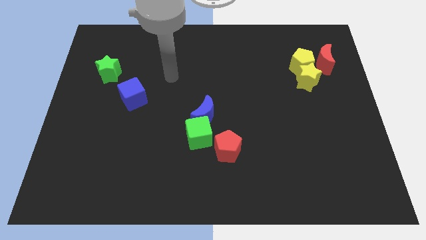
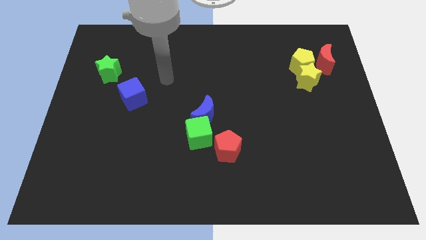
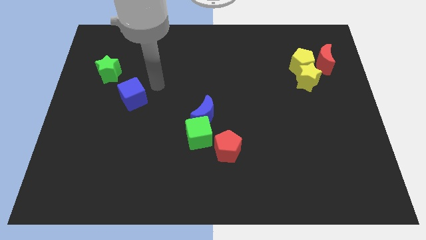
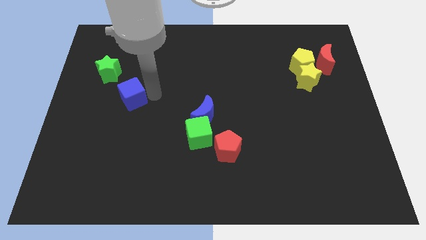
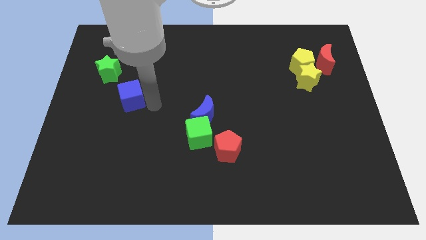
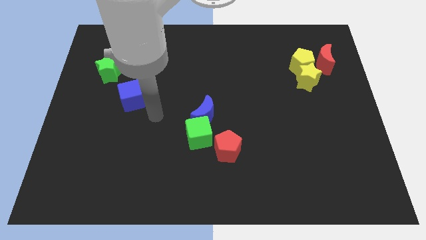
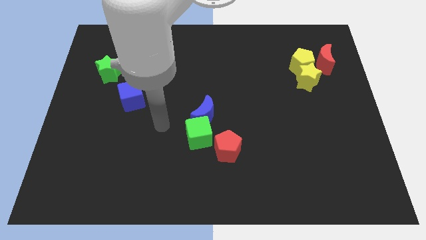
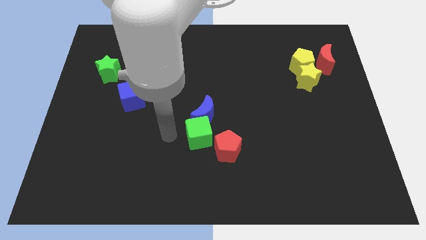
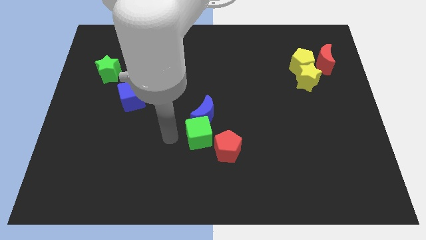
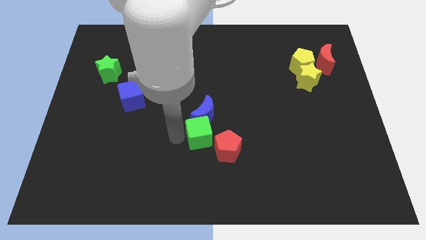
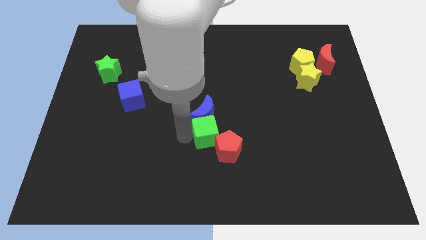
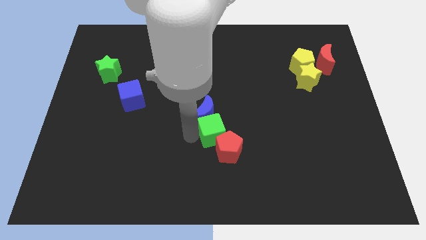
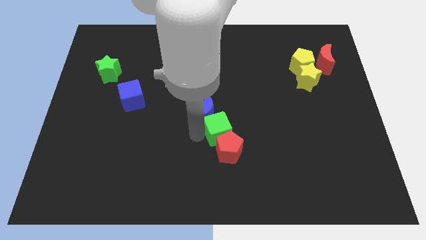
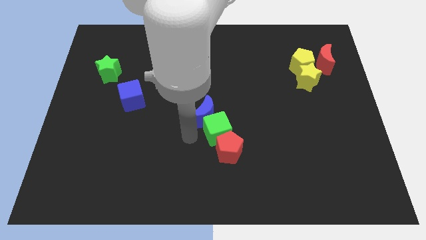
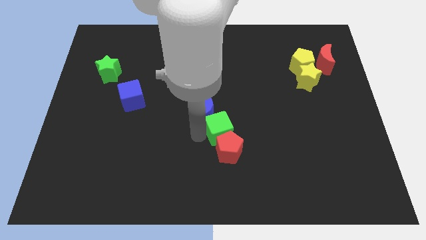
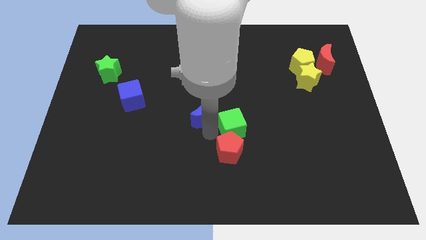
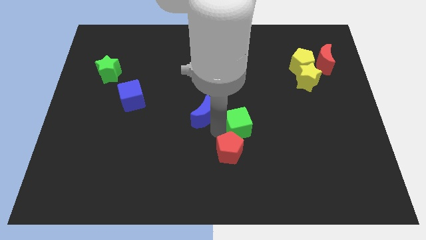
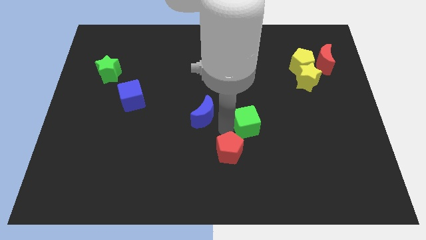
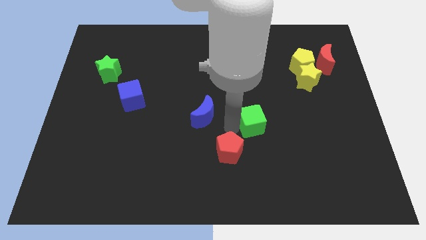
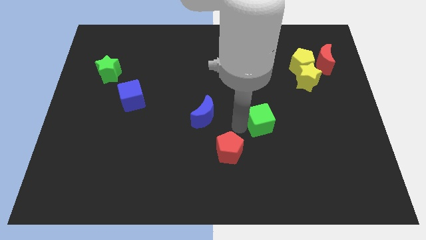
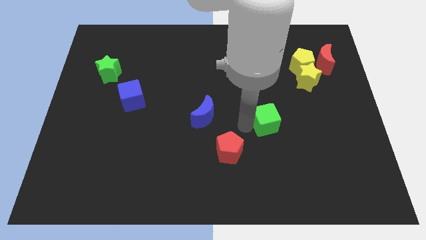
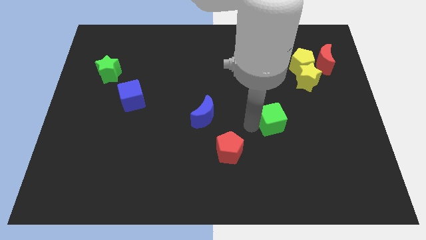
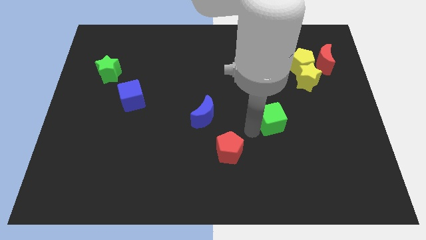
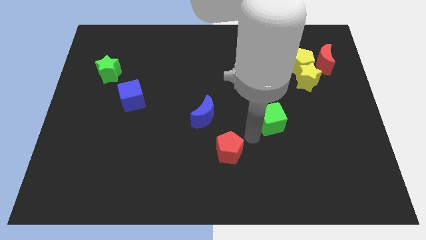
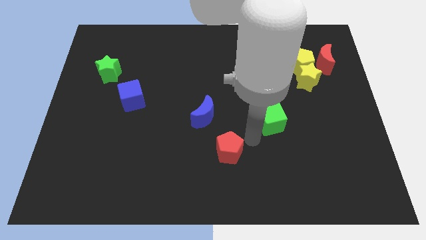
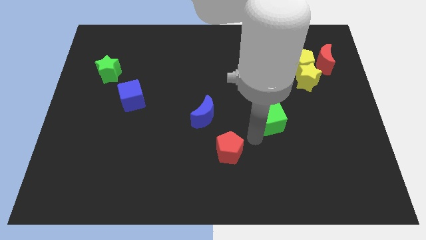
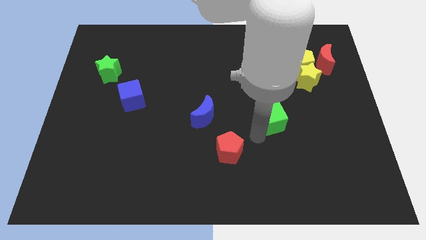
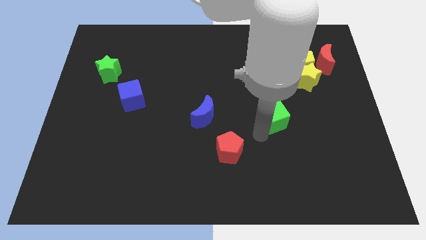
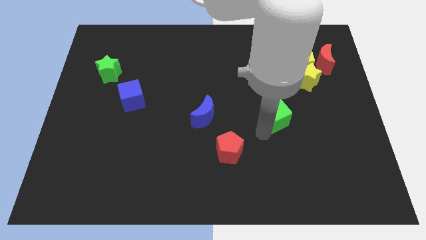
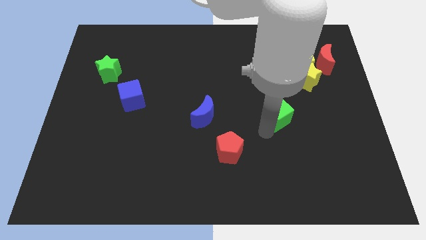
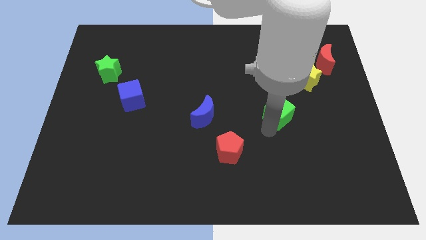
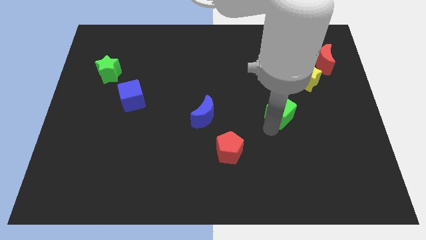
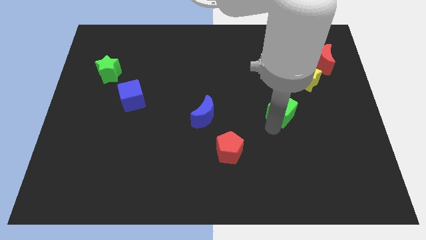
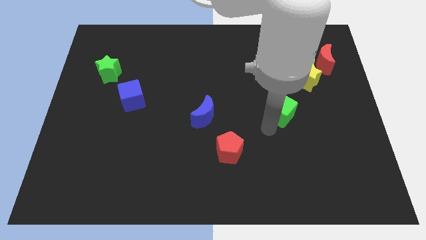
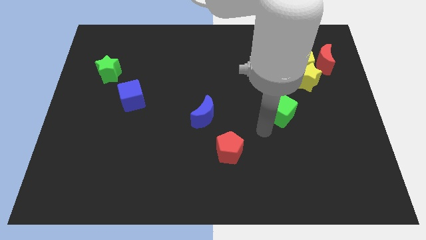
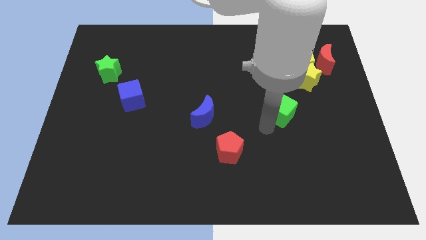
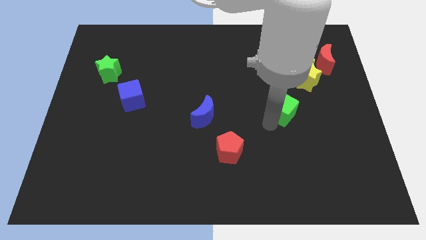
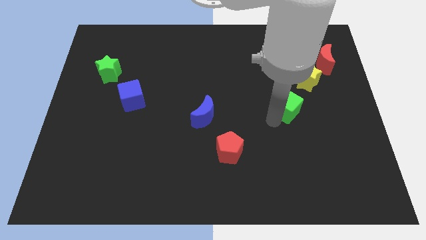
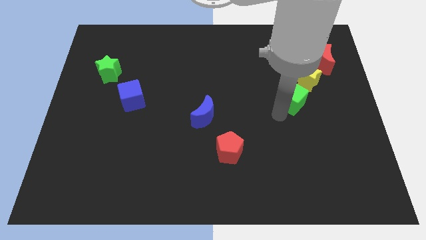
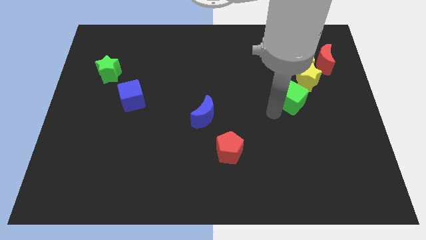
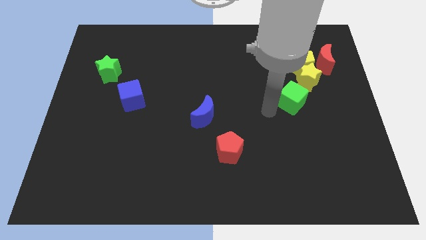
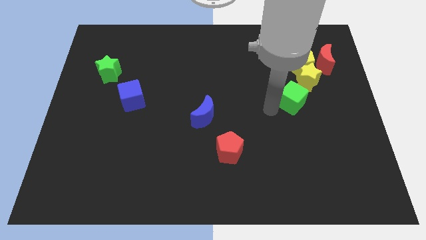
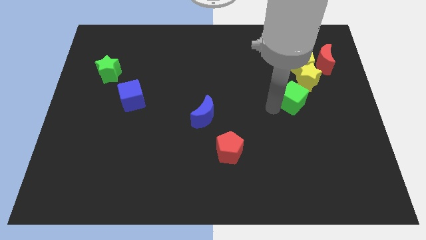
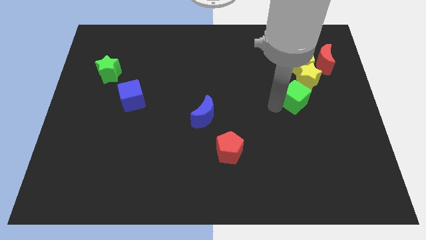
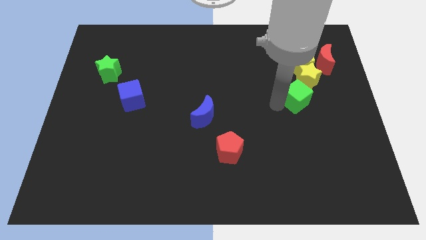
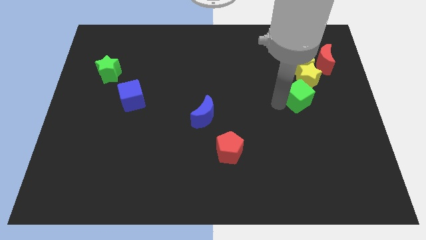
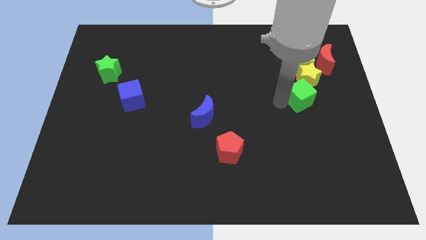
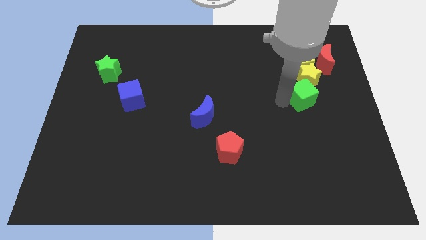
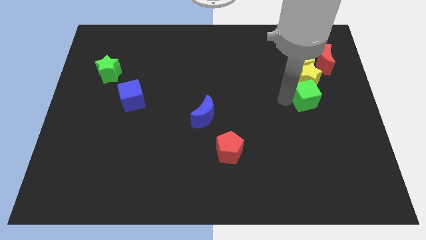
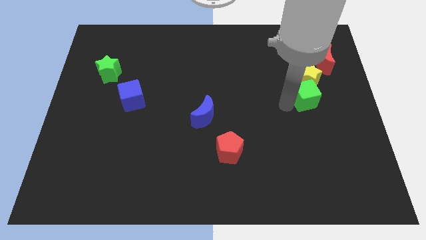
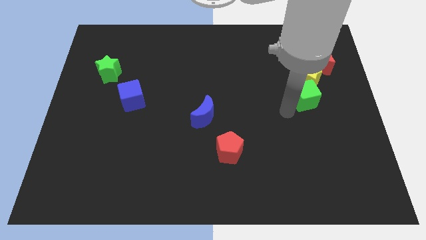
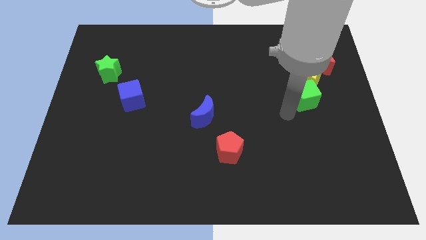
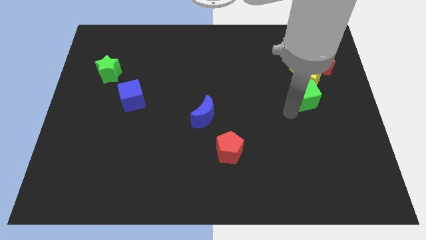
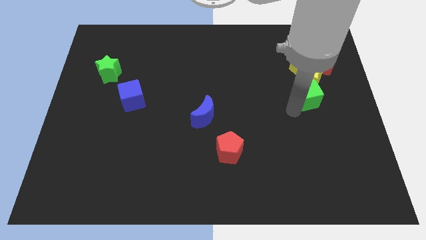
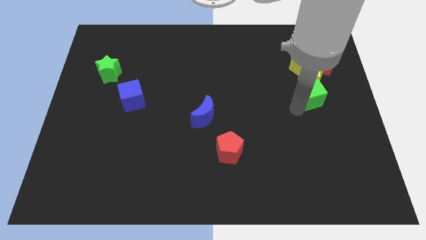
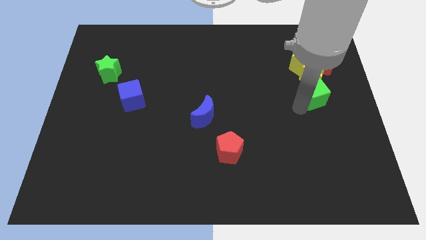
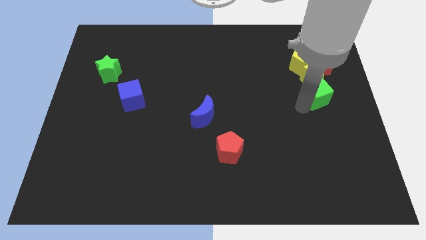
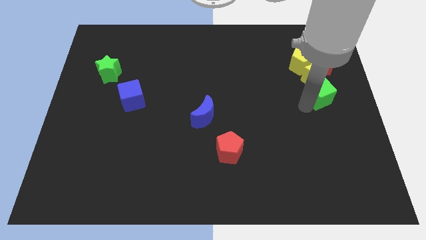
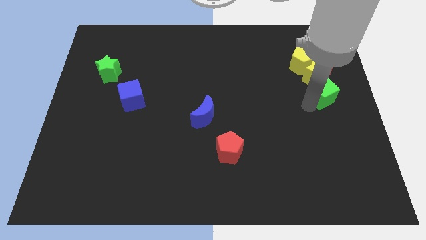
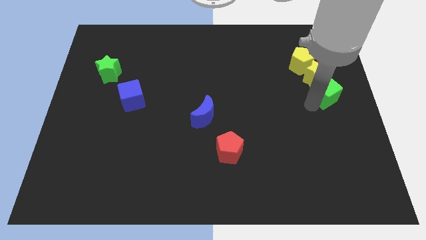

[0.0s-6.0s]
put the green cube to the bottom right of the yellow pentagon
